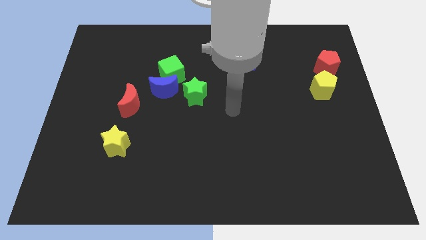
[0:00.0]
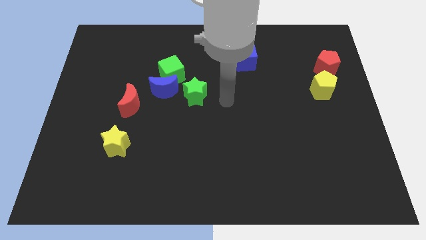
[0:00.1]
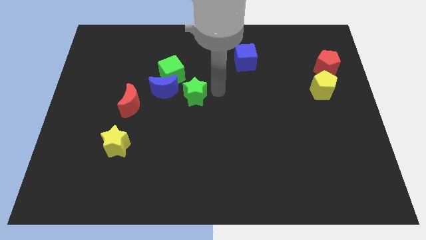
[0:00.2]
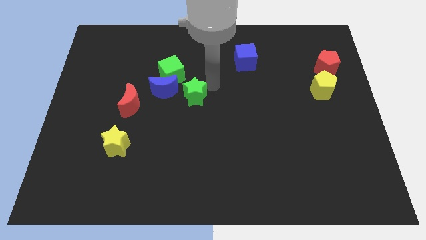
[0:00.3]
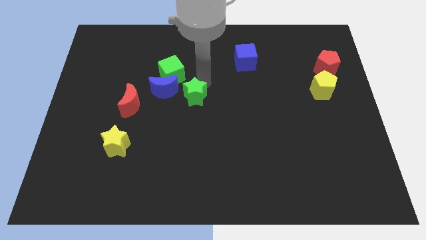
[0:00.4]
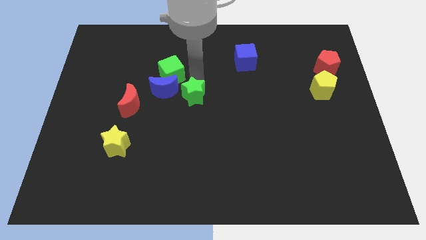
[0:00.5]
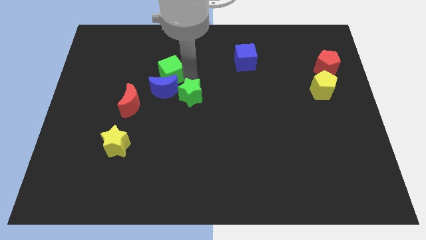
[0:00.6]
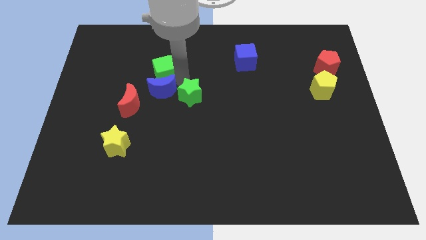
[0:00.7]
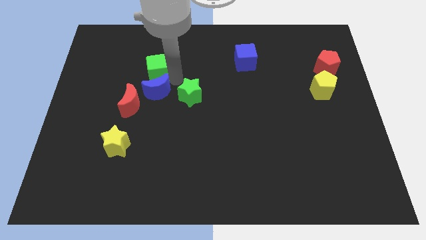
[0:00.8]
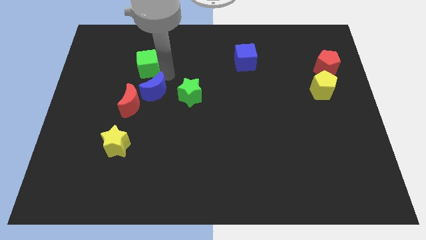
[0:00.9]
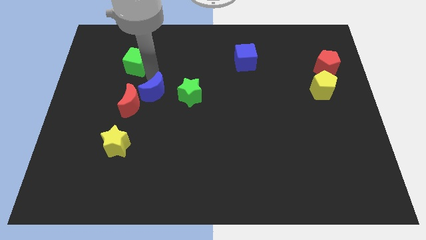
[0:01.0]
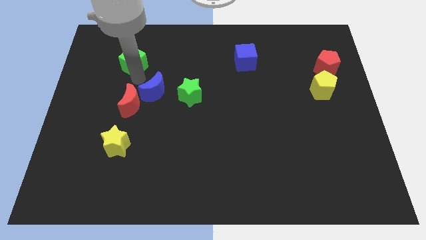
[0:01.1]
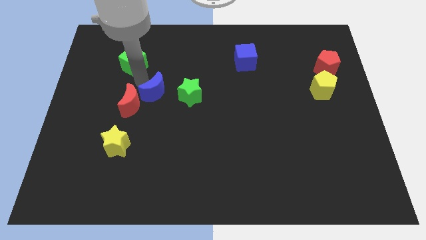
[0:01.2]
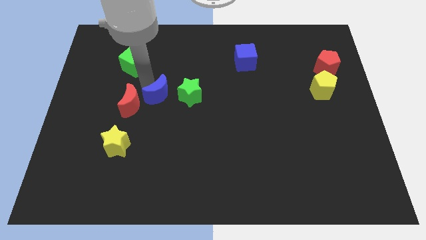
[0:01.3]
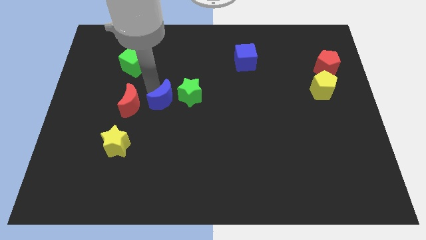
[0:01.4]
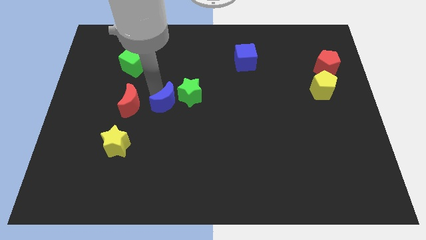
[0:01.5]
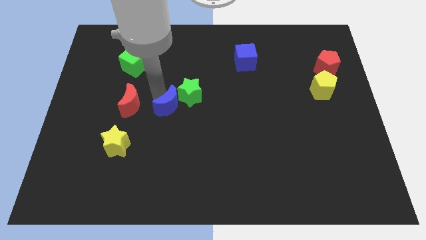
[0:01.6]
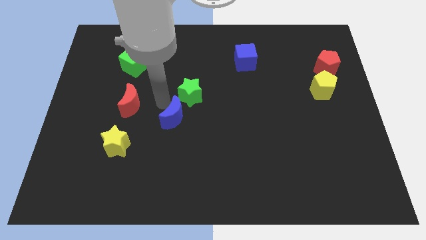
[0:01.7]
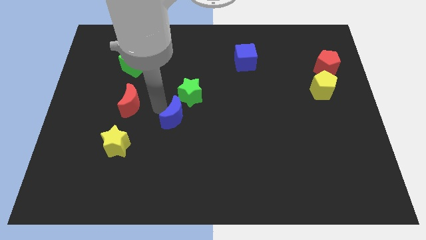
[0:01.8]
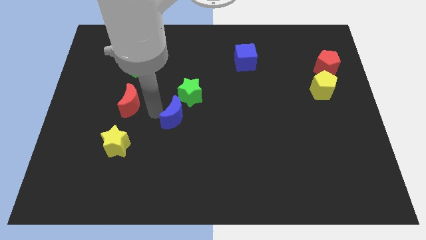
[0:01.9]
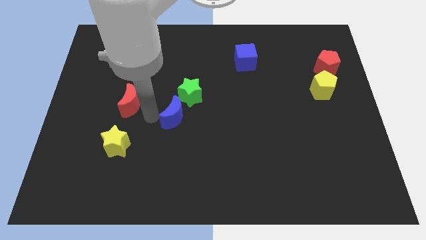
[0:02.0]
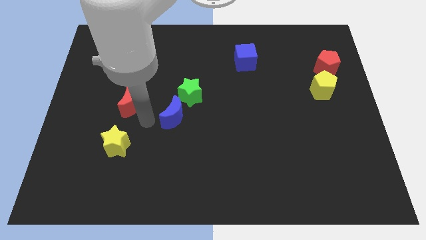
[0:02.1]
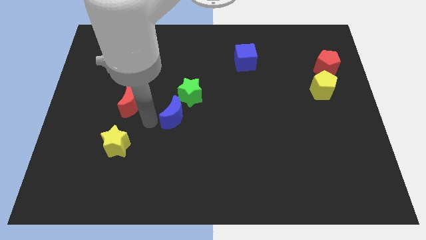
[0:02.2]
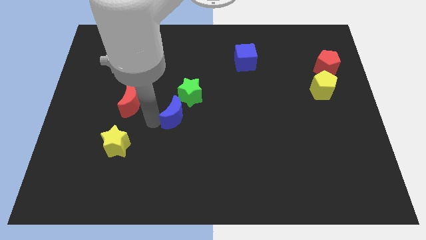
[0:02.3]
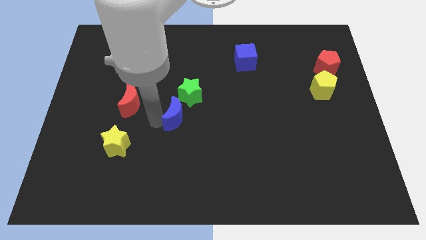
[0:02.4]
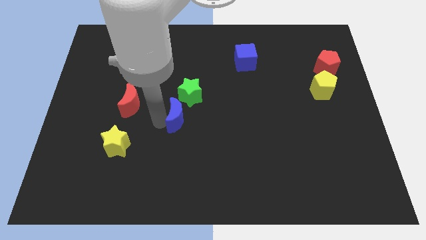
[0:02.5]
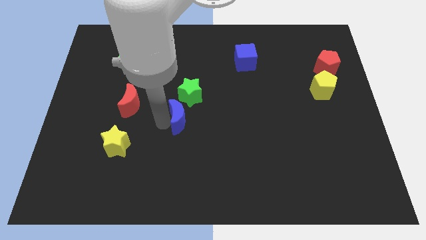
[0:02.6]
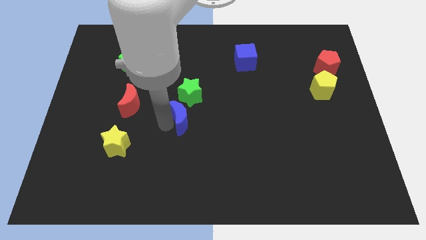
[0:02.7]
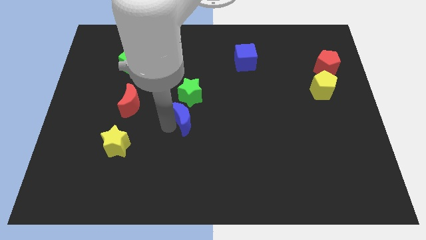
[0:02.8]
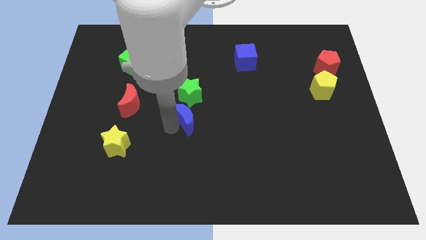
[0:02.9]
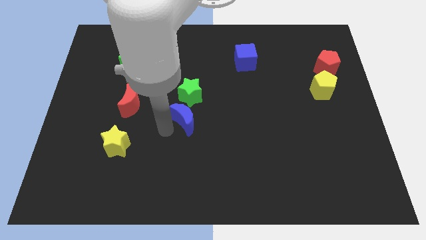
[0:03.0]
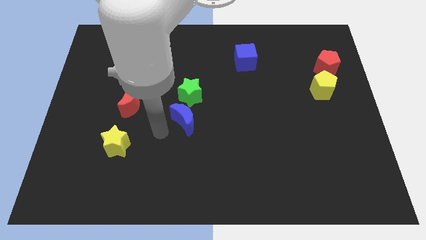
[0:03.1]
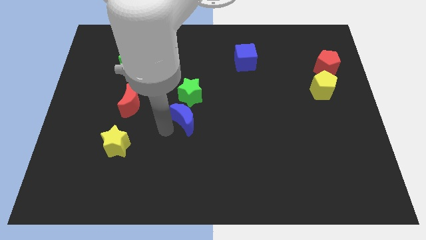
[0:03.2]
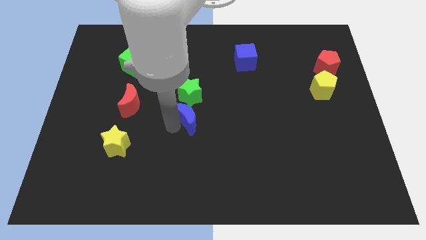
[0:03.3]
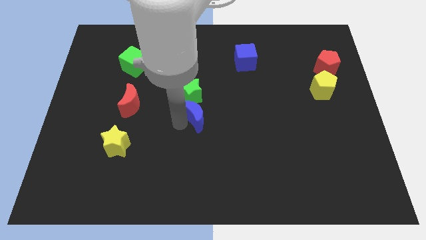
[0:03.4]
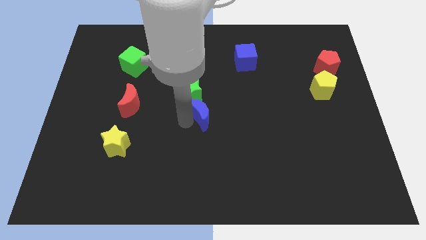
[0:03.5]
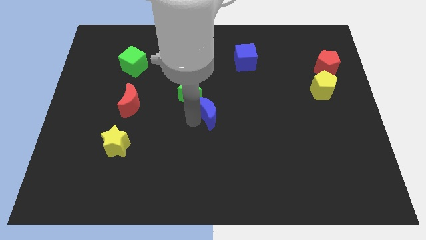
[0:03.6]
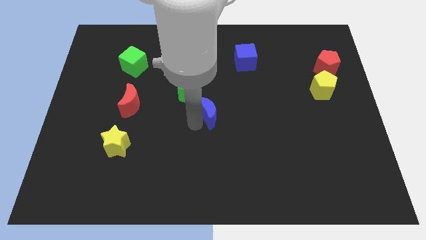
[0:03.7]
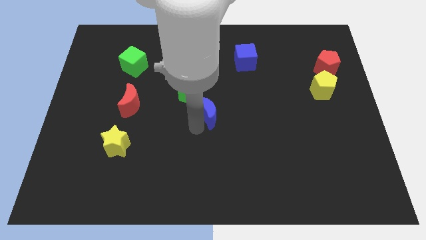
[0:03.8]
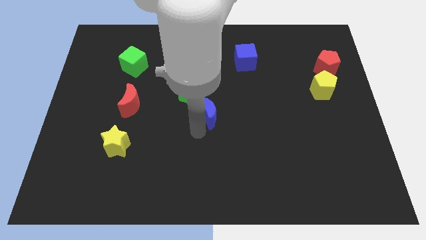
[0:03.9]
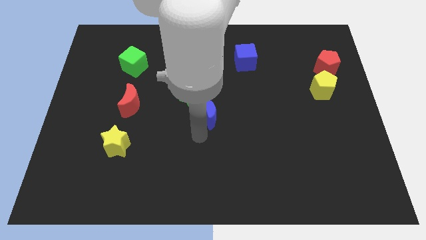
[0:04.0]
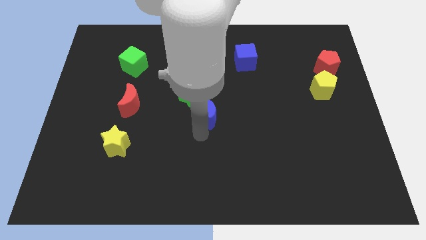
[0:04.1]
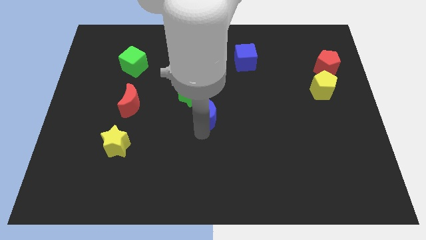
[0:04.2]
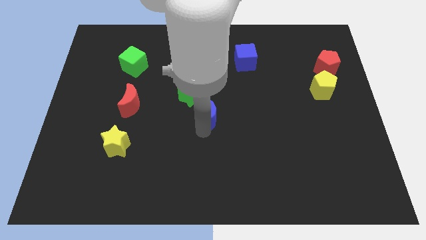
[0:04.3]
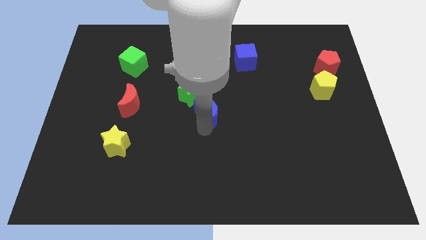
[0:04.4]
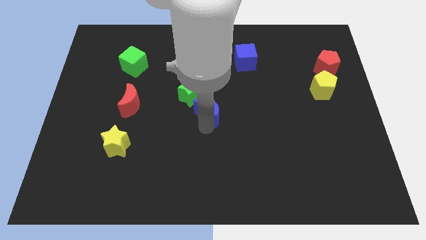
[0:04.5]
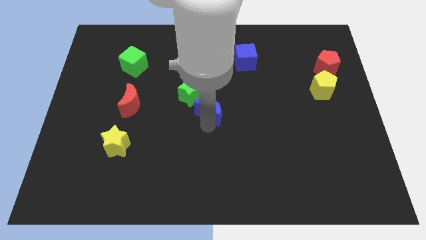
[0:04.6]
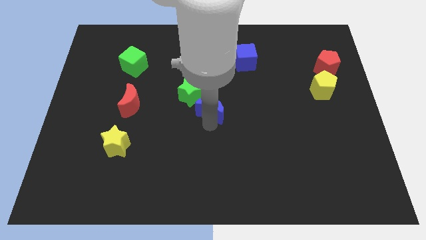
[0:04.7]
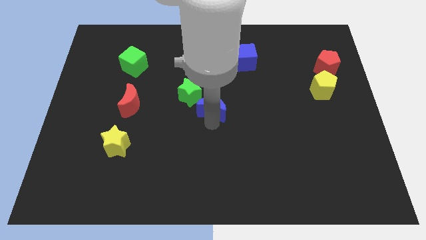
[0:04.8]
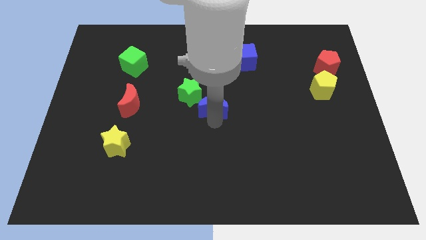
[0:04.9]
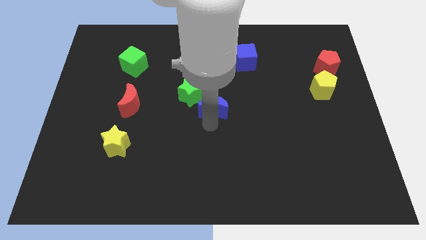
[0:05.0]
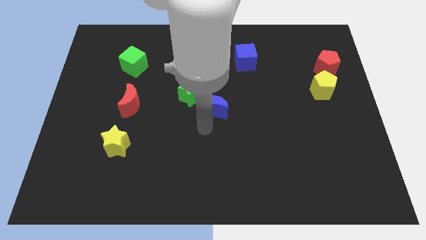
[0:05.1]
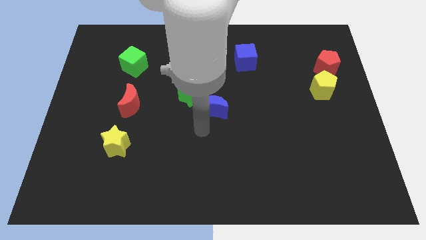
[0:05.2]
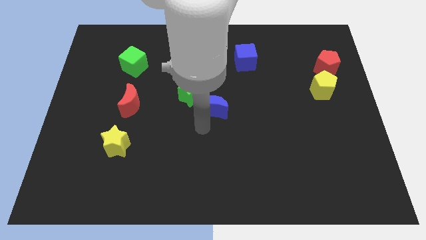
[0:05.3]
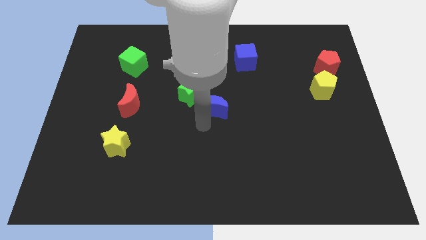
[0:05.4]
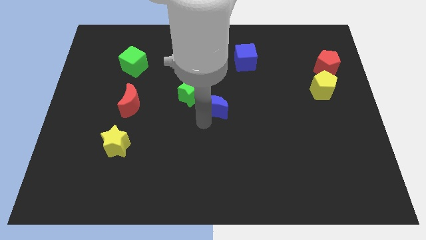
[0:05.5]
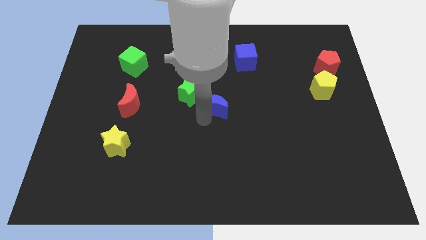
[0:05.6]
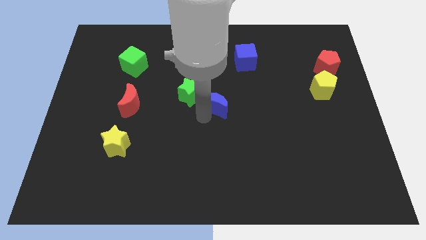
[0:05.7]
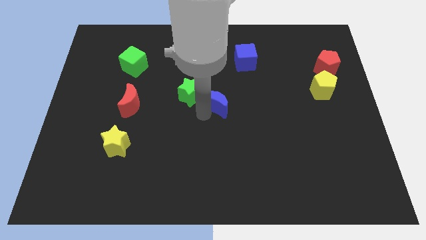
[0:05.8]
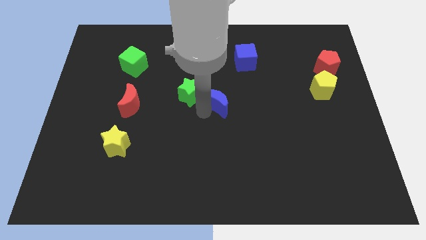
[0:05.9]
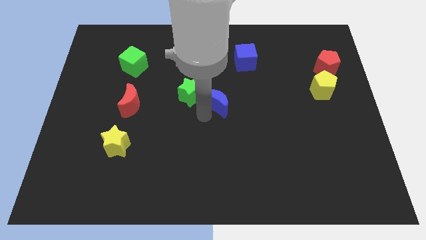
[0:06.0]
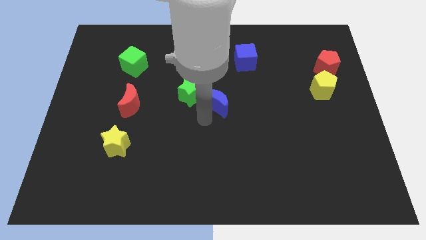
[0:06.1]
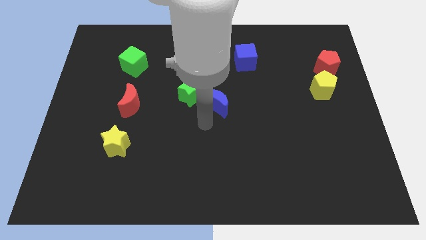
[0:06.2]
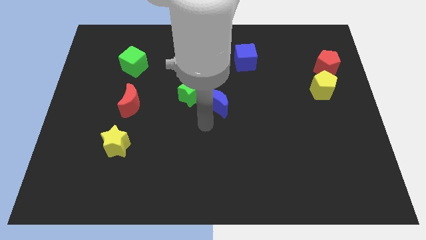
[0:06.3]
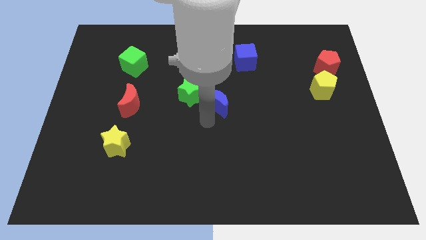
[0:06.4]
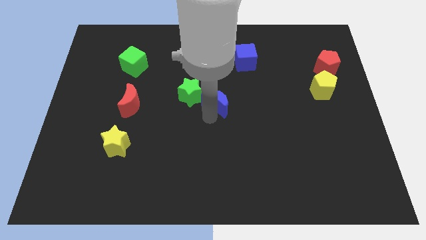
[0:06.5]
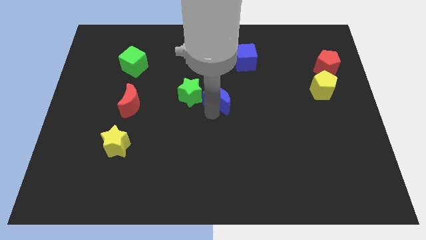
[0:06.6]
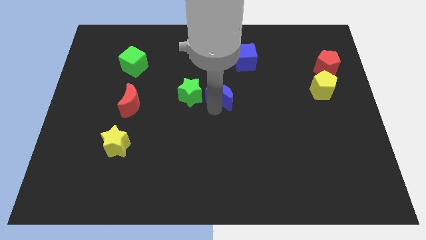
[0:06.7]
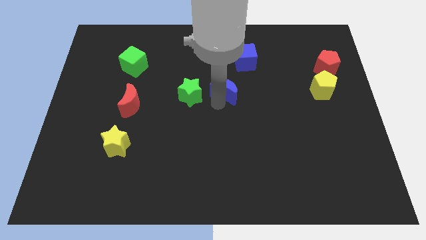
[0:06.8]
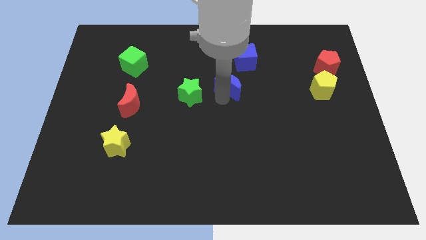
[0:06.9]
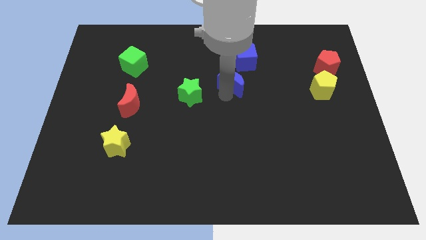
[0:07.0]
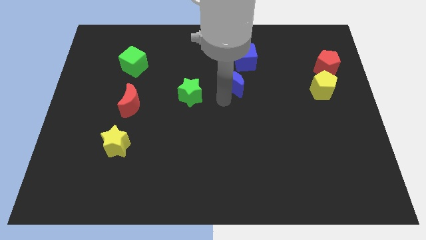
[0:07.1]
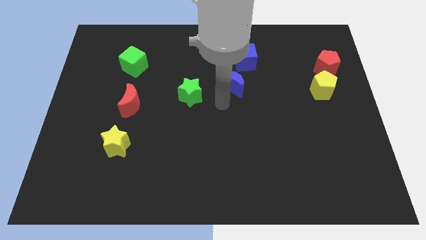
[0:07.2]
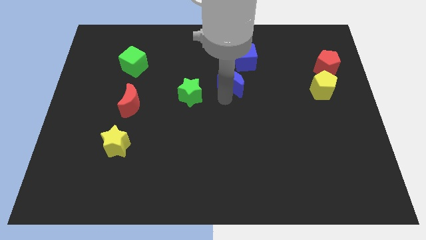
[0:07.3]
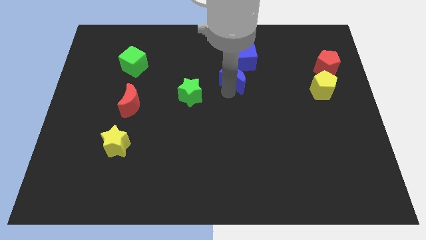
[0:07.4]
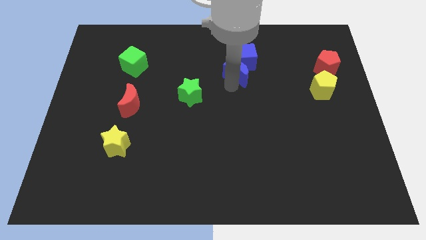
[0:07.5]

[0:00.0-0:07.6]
move the blue moon to the blue cube
